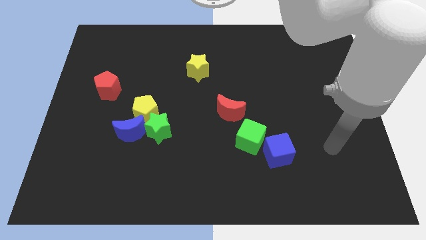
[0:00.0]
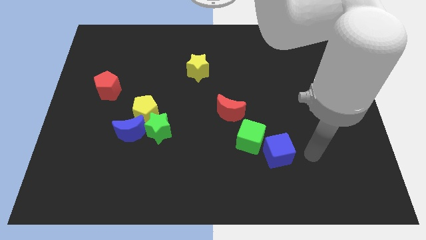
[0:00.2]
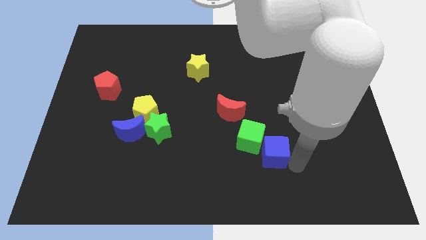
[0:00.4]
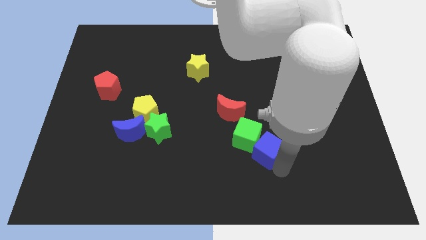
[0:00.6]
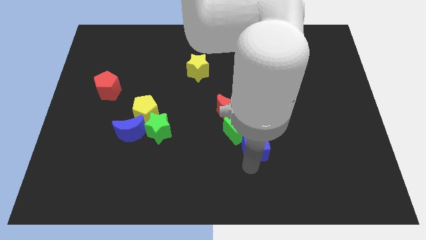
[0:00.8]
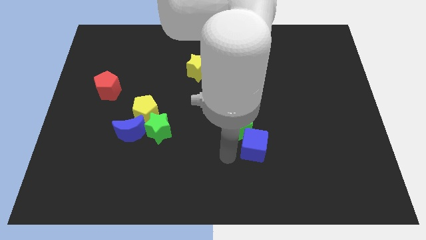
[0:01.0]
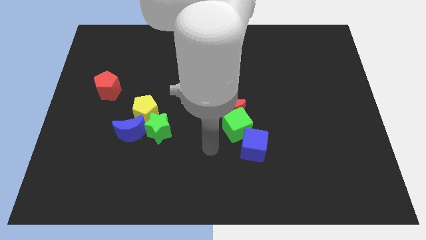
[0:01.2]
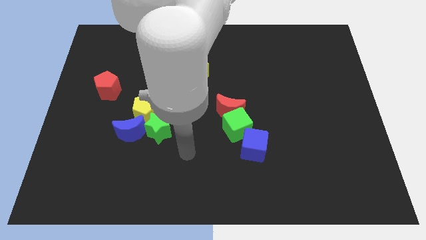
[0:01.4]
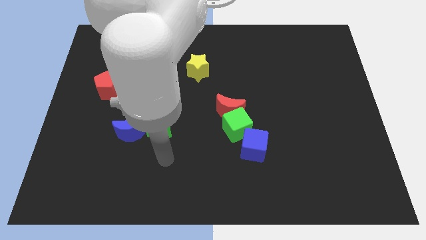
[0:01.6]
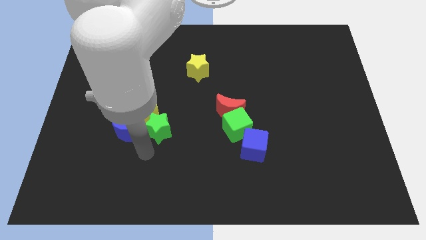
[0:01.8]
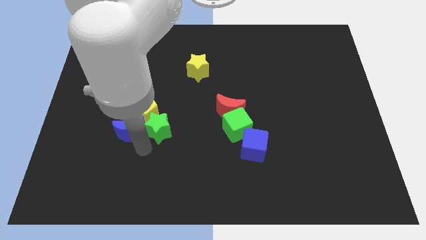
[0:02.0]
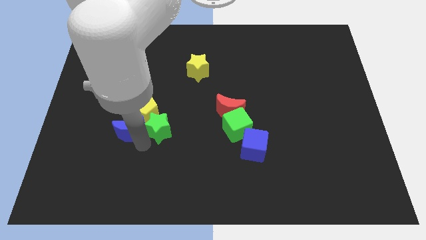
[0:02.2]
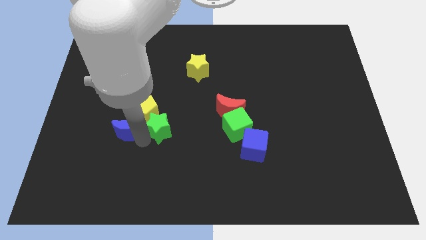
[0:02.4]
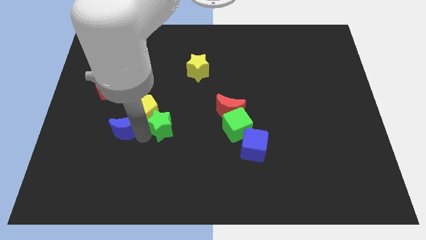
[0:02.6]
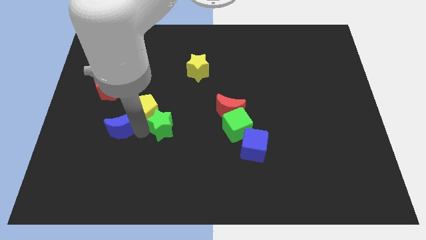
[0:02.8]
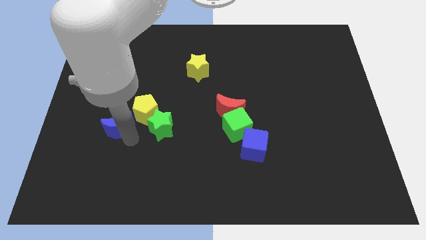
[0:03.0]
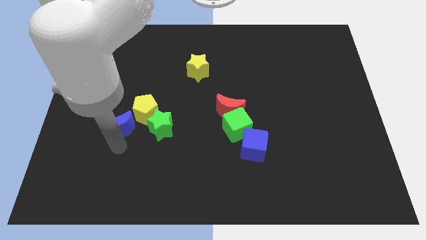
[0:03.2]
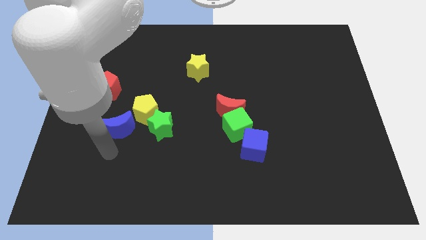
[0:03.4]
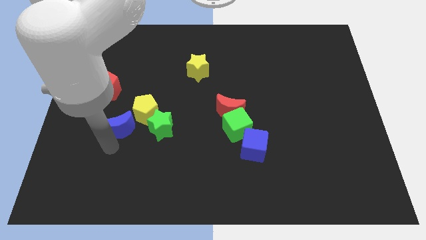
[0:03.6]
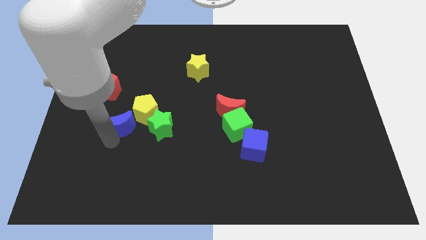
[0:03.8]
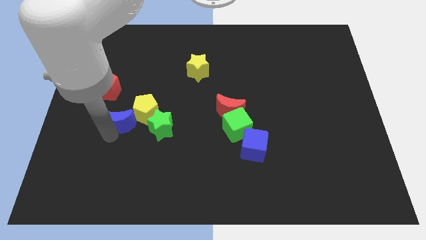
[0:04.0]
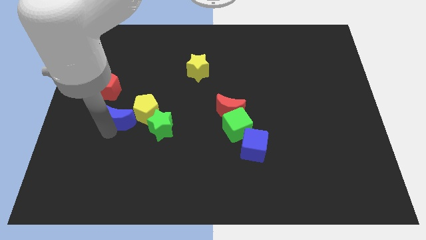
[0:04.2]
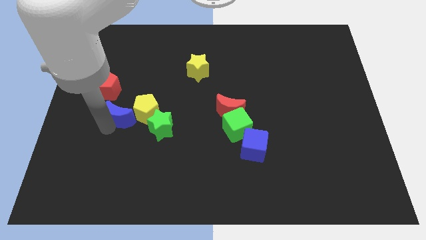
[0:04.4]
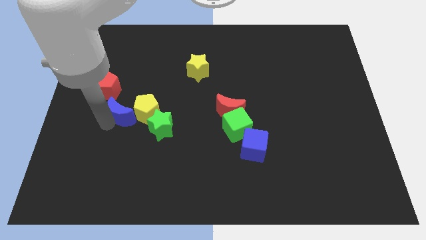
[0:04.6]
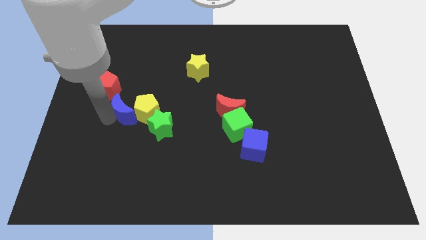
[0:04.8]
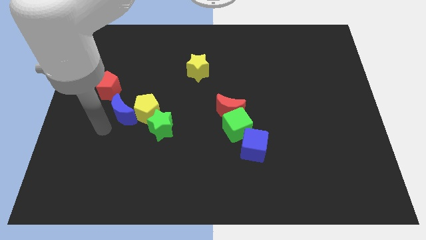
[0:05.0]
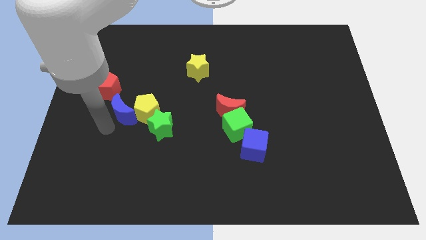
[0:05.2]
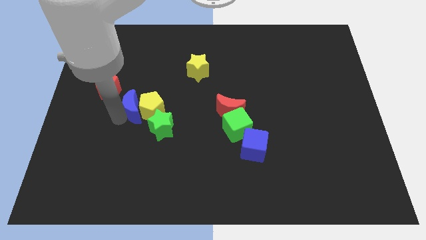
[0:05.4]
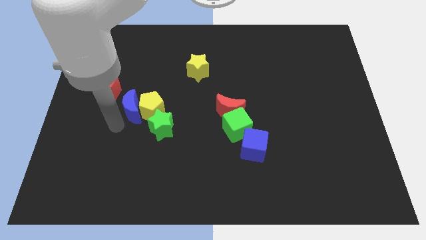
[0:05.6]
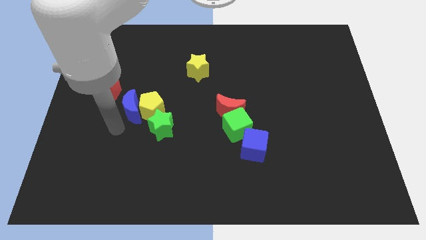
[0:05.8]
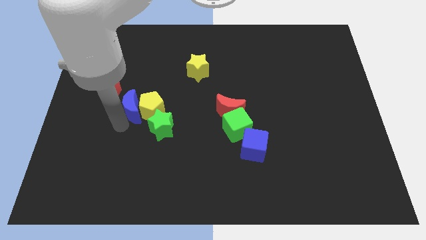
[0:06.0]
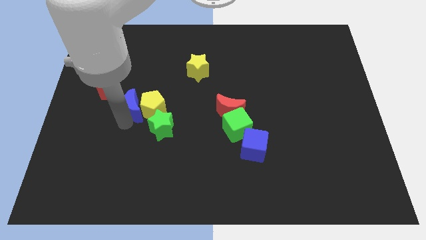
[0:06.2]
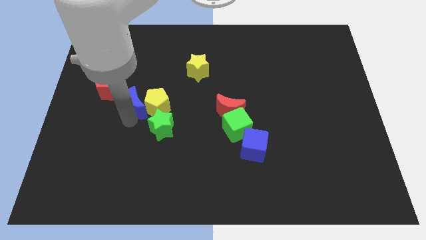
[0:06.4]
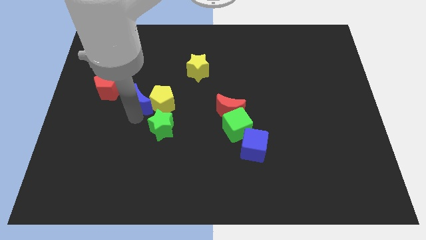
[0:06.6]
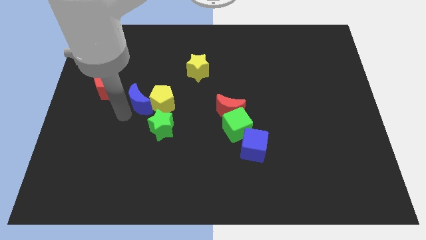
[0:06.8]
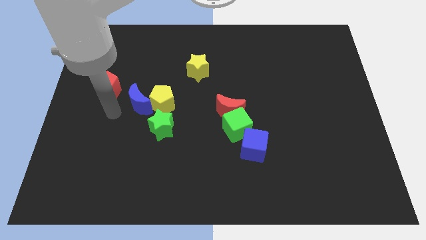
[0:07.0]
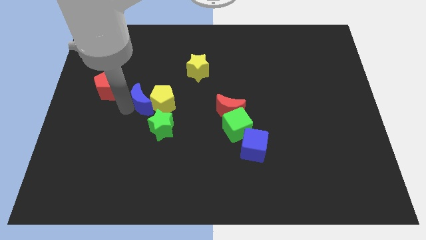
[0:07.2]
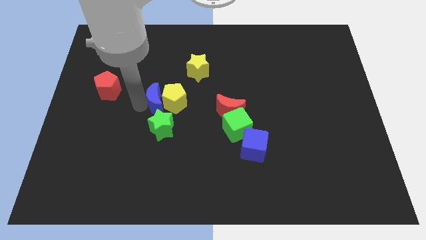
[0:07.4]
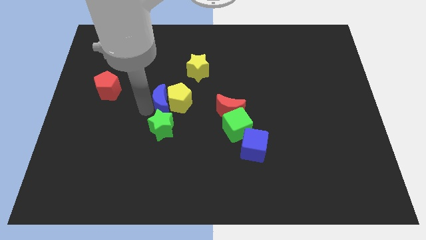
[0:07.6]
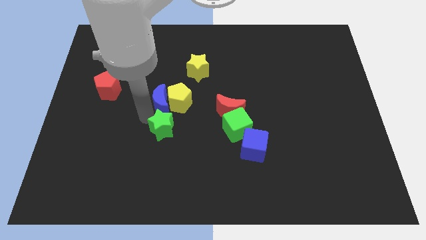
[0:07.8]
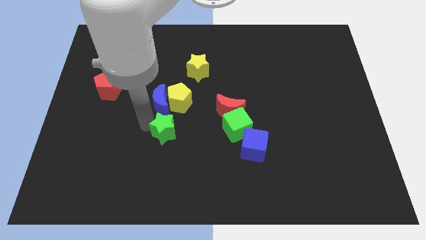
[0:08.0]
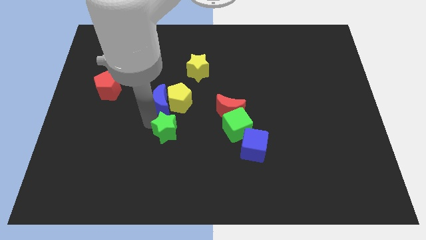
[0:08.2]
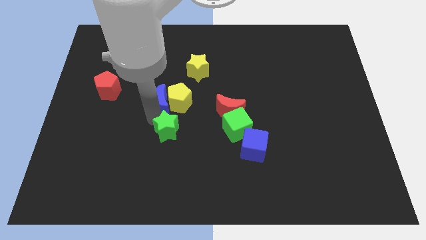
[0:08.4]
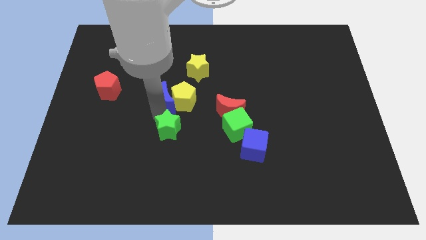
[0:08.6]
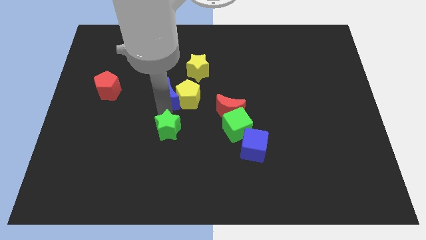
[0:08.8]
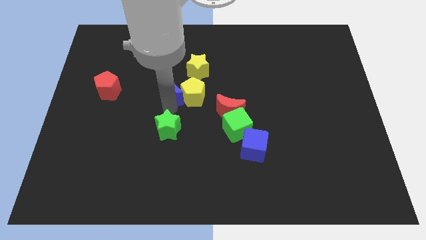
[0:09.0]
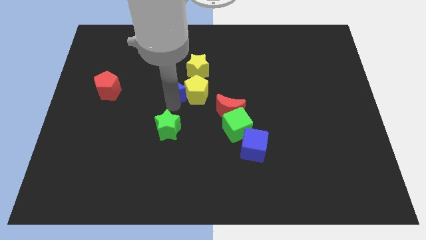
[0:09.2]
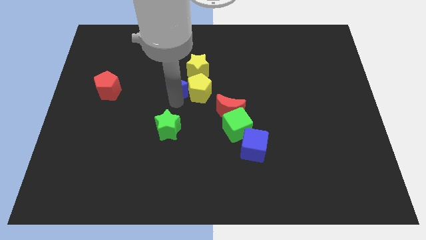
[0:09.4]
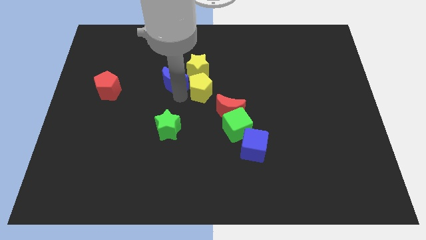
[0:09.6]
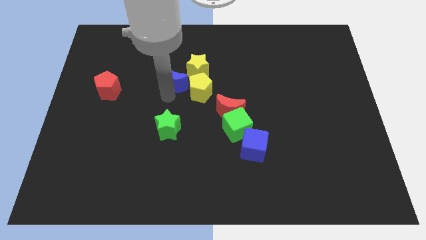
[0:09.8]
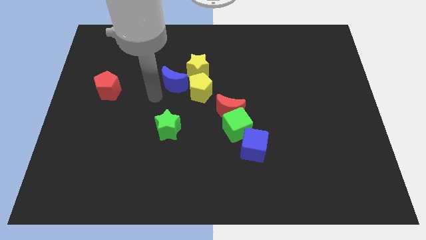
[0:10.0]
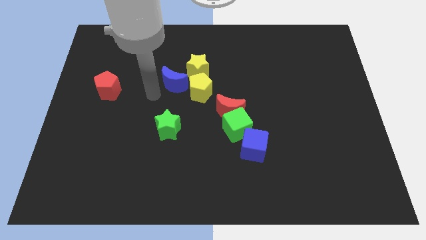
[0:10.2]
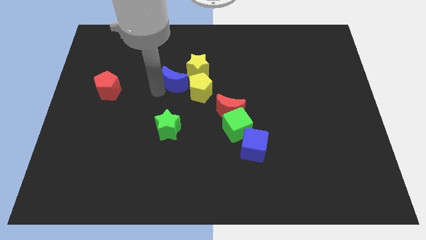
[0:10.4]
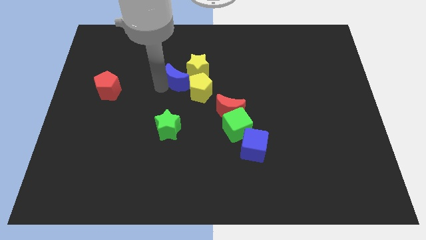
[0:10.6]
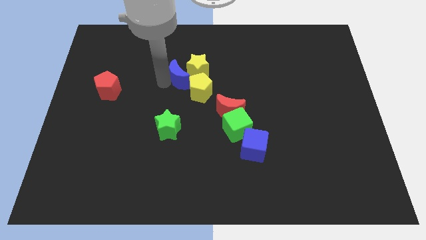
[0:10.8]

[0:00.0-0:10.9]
push the blue moon close to the yellow star
